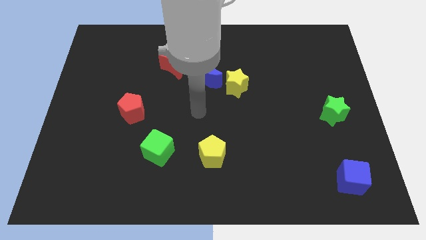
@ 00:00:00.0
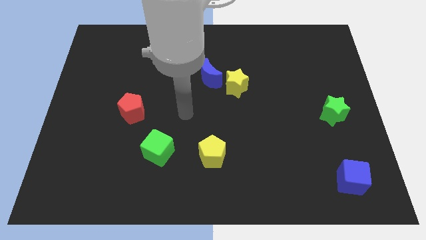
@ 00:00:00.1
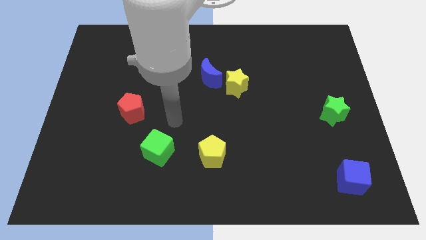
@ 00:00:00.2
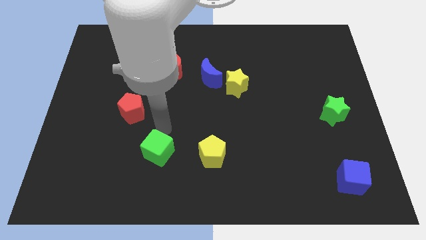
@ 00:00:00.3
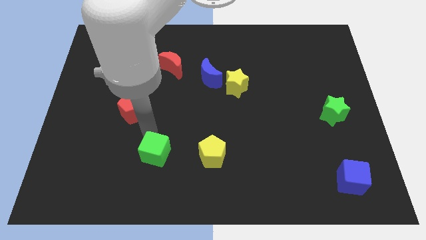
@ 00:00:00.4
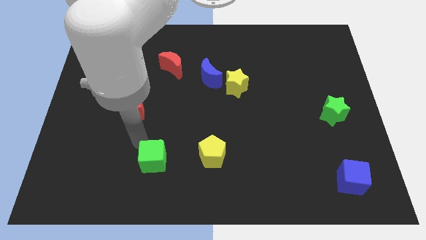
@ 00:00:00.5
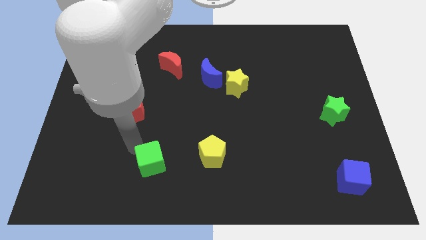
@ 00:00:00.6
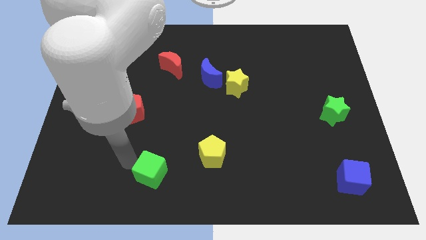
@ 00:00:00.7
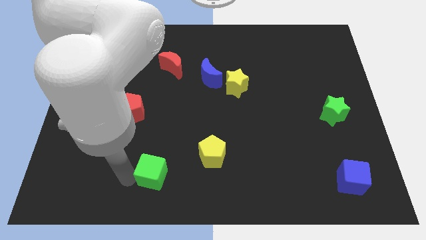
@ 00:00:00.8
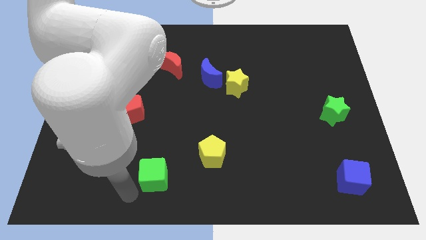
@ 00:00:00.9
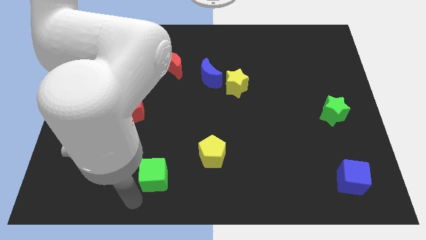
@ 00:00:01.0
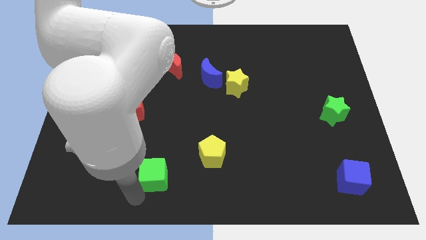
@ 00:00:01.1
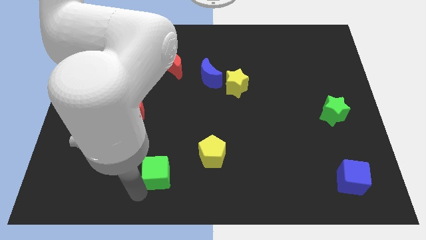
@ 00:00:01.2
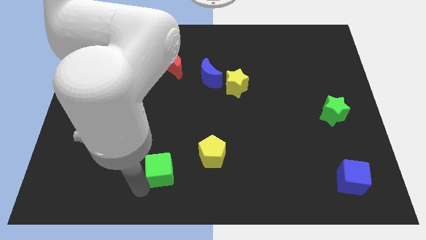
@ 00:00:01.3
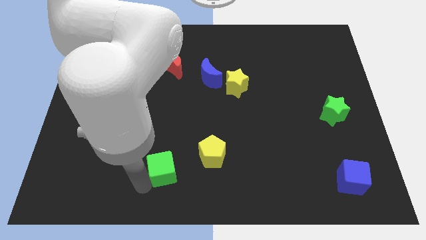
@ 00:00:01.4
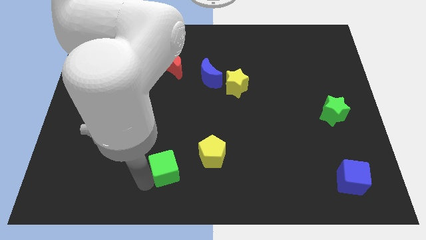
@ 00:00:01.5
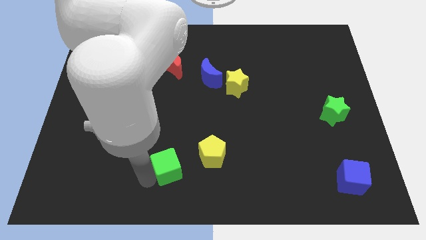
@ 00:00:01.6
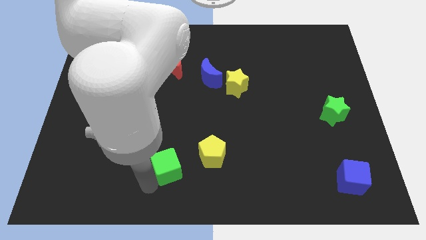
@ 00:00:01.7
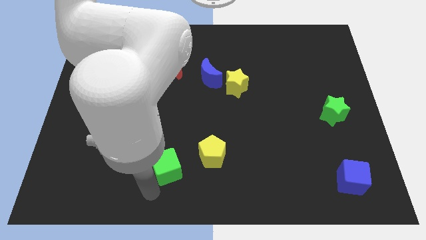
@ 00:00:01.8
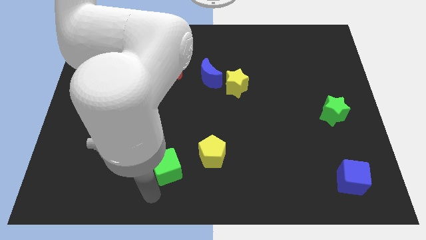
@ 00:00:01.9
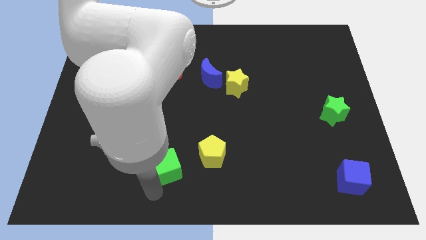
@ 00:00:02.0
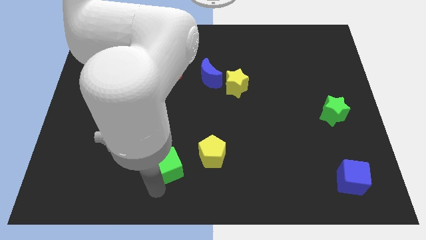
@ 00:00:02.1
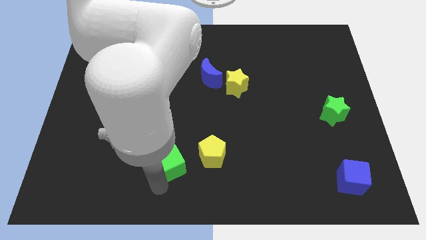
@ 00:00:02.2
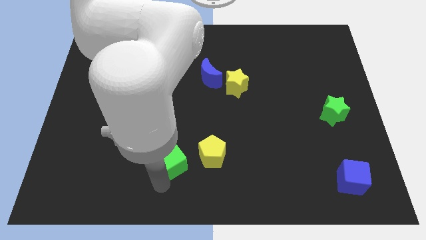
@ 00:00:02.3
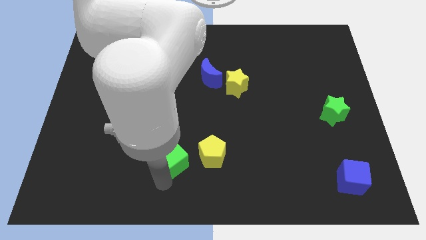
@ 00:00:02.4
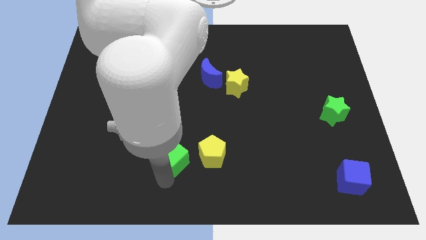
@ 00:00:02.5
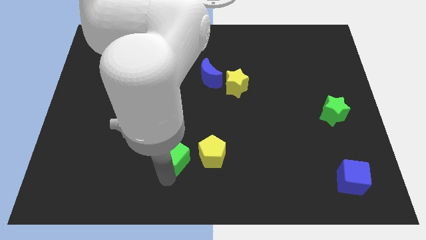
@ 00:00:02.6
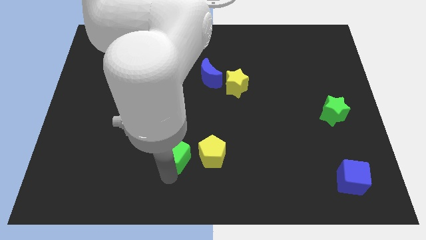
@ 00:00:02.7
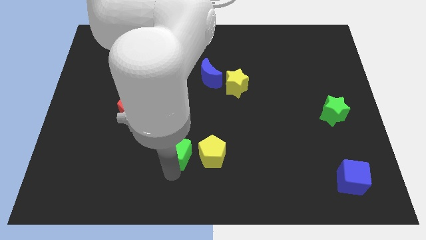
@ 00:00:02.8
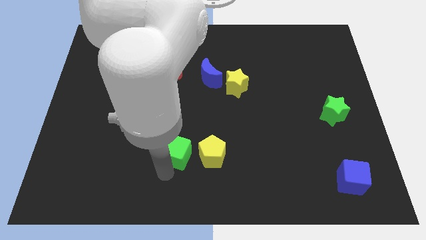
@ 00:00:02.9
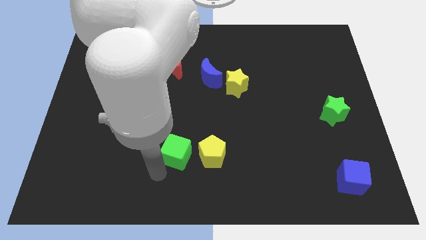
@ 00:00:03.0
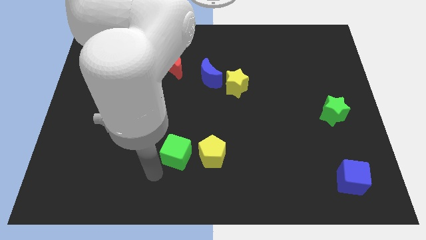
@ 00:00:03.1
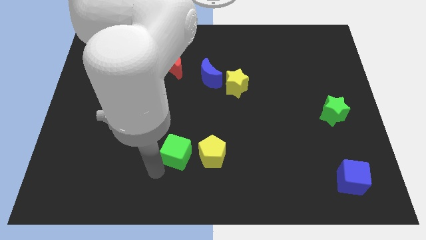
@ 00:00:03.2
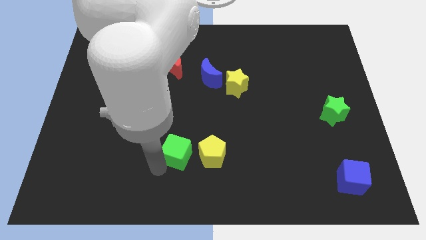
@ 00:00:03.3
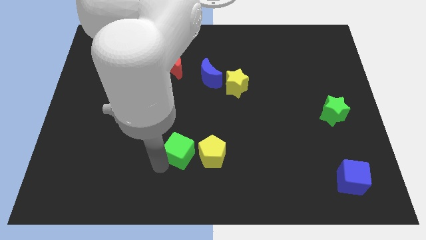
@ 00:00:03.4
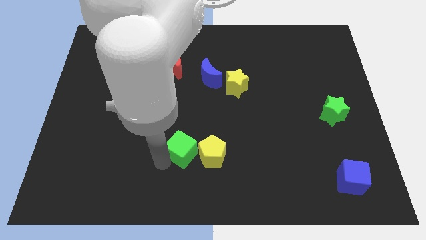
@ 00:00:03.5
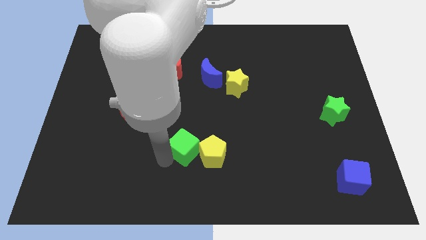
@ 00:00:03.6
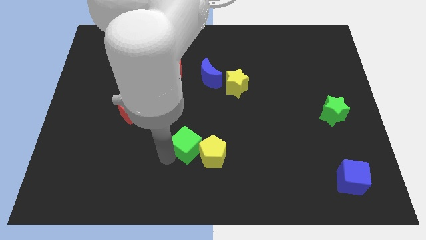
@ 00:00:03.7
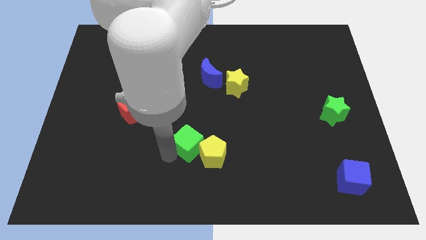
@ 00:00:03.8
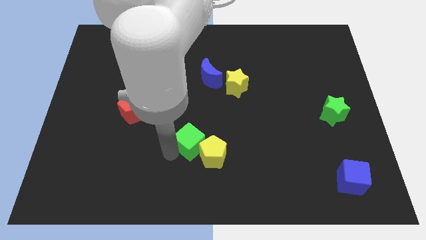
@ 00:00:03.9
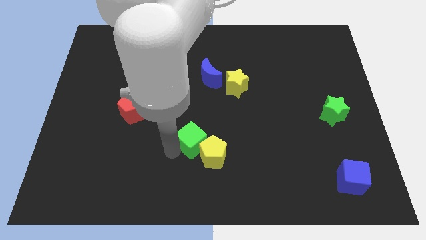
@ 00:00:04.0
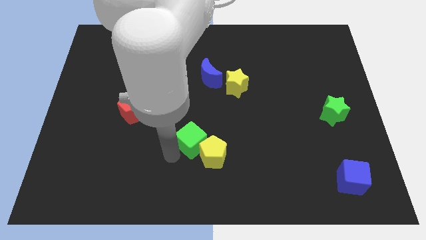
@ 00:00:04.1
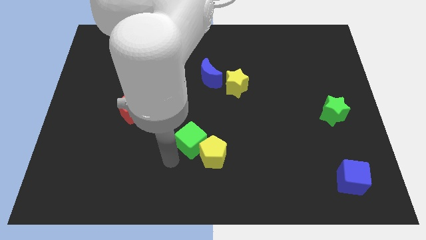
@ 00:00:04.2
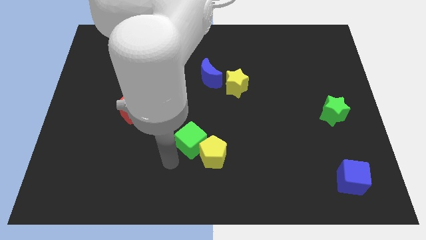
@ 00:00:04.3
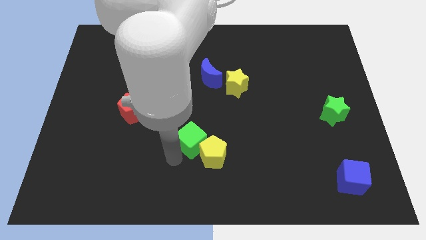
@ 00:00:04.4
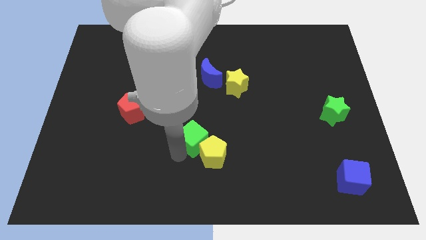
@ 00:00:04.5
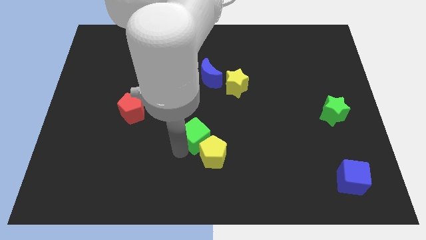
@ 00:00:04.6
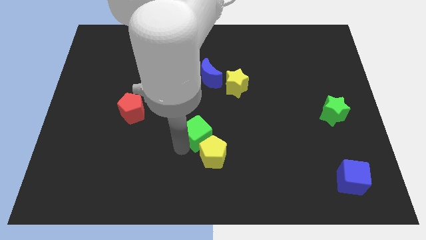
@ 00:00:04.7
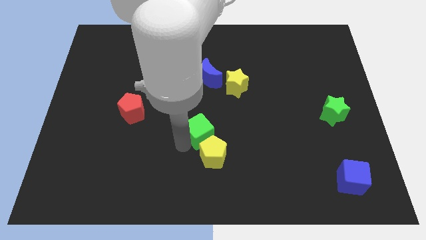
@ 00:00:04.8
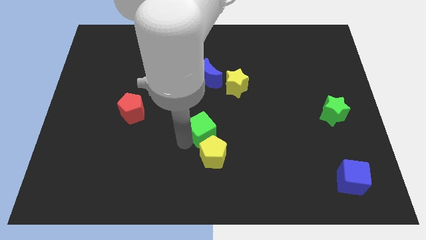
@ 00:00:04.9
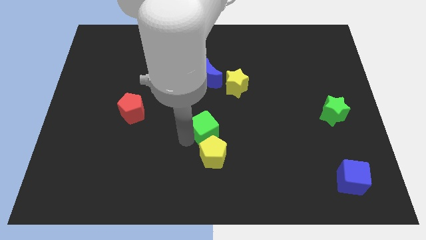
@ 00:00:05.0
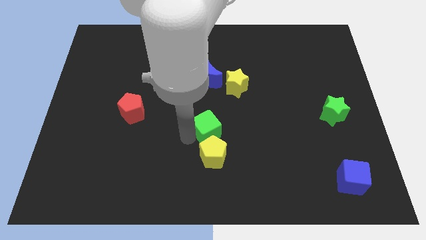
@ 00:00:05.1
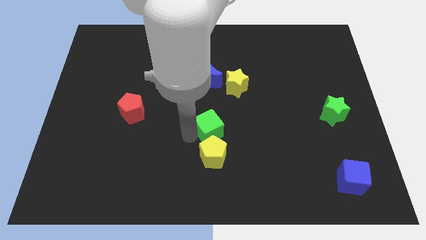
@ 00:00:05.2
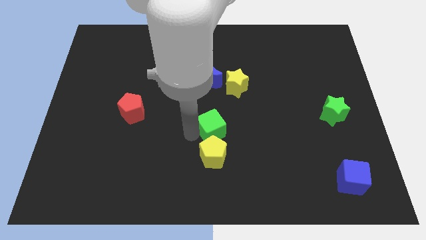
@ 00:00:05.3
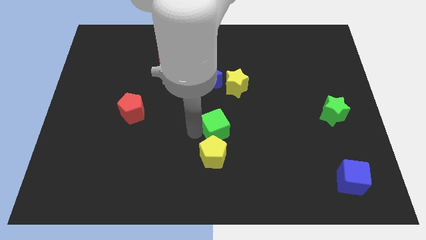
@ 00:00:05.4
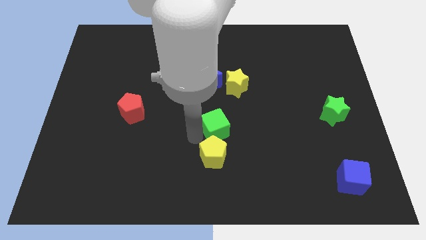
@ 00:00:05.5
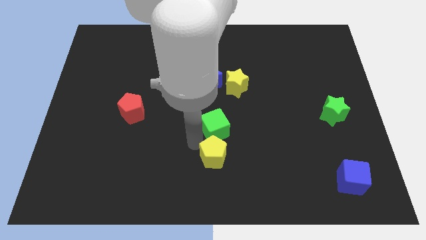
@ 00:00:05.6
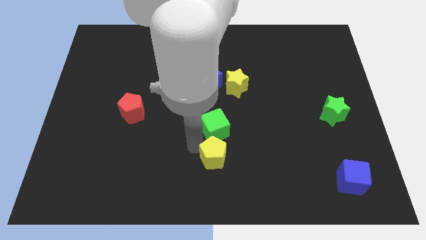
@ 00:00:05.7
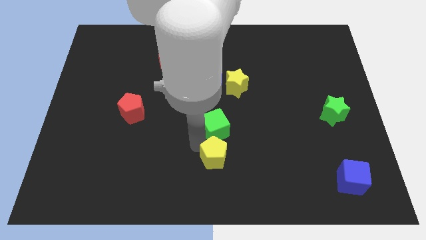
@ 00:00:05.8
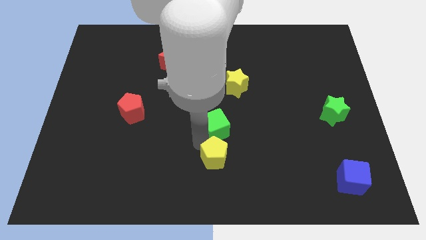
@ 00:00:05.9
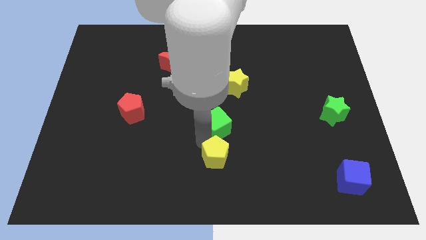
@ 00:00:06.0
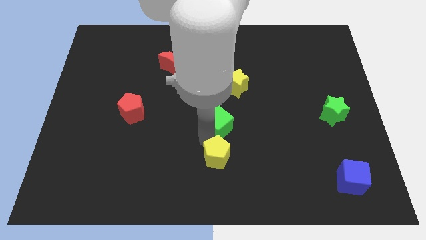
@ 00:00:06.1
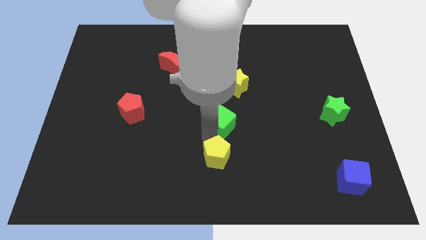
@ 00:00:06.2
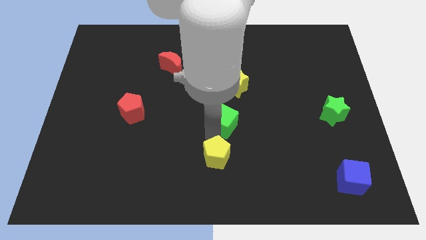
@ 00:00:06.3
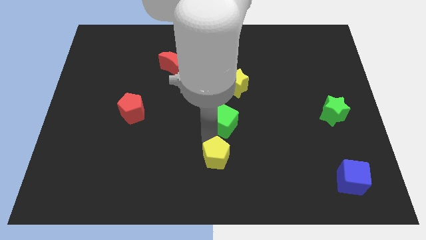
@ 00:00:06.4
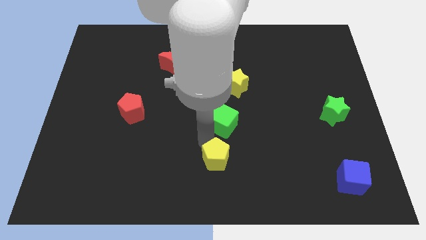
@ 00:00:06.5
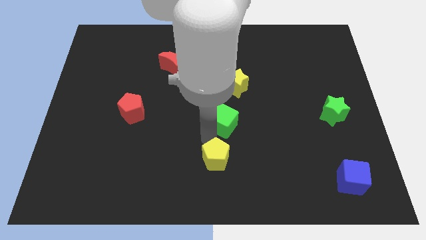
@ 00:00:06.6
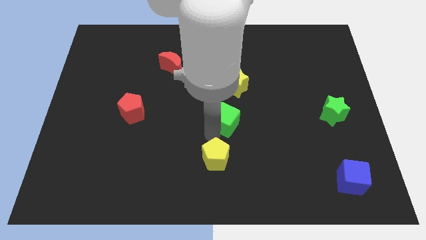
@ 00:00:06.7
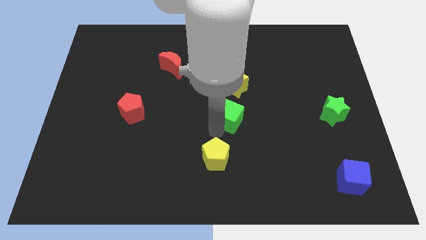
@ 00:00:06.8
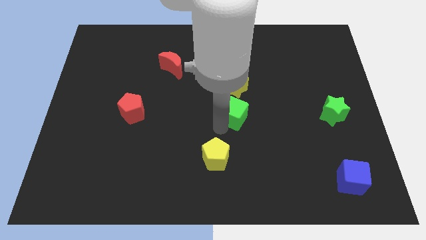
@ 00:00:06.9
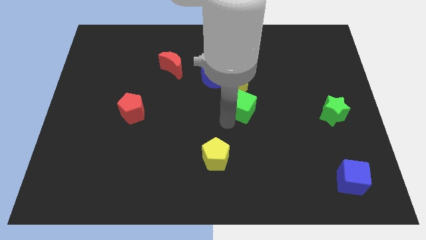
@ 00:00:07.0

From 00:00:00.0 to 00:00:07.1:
push the green cube diagonally up and to the right

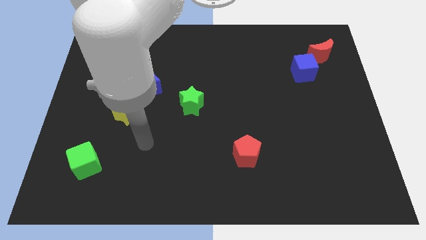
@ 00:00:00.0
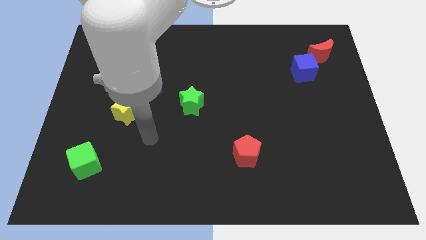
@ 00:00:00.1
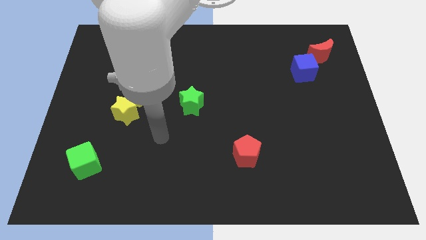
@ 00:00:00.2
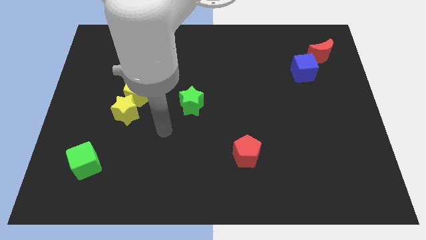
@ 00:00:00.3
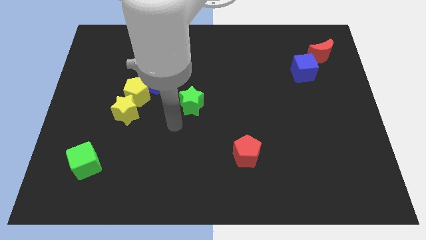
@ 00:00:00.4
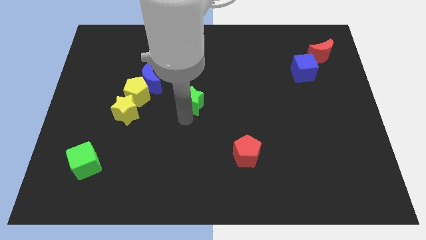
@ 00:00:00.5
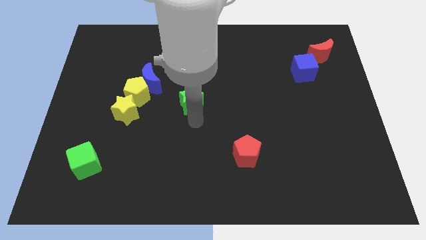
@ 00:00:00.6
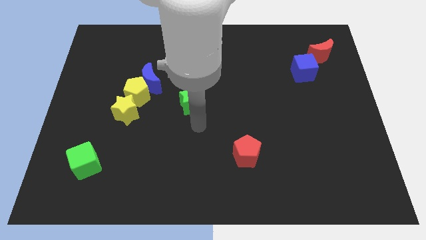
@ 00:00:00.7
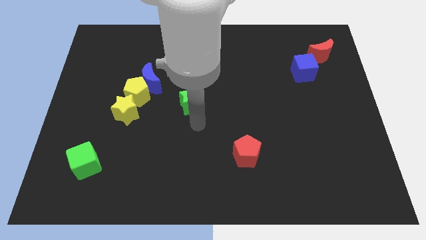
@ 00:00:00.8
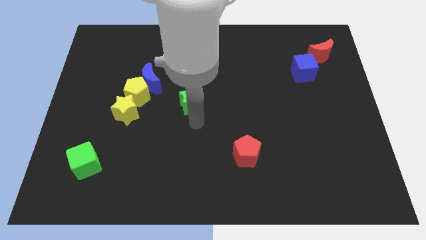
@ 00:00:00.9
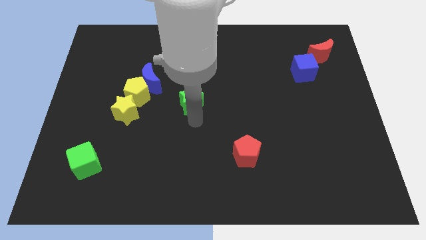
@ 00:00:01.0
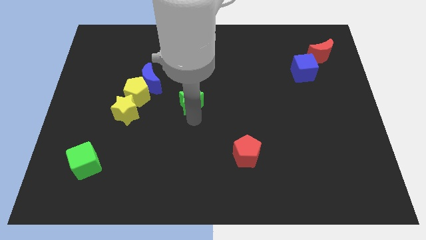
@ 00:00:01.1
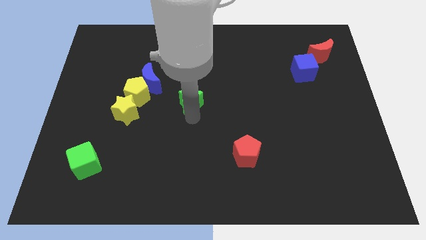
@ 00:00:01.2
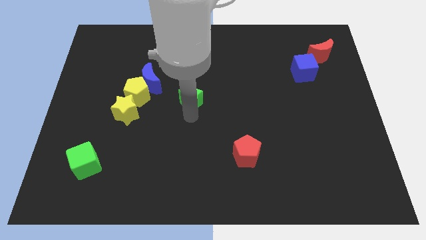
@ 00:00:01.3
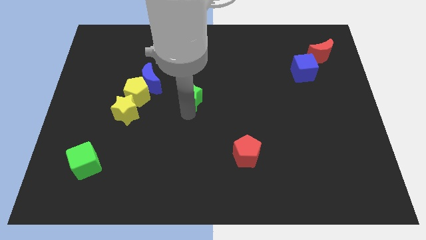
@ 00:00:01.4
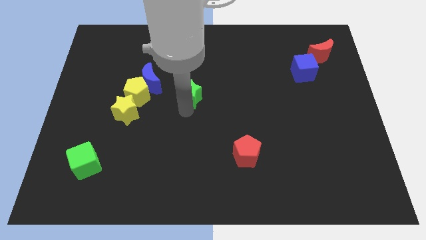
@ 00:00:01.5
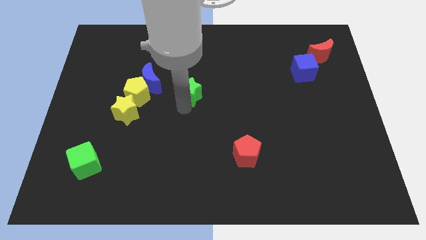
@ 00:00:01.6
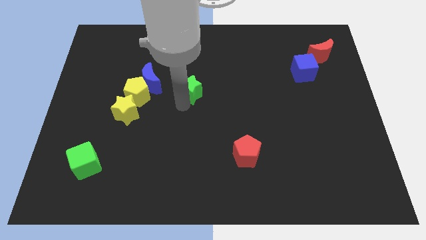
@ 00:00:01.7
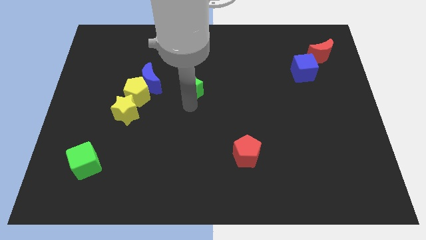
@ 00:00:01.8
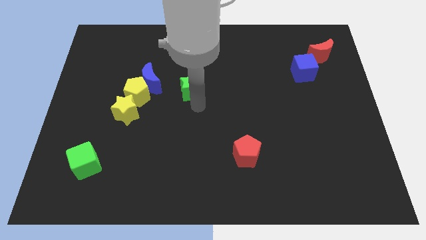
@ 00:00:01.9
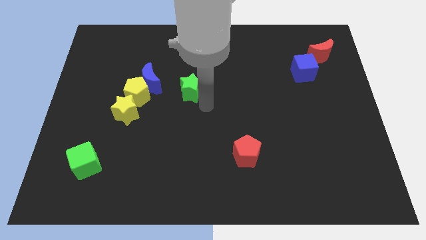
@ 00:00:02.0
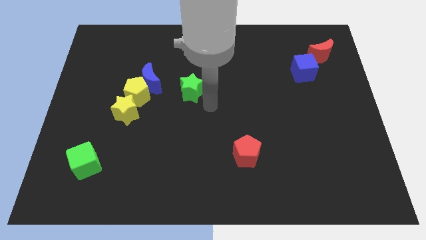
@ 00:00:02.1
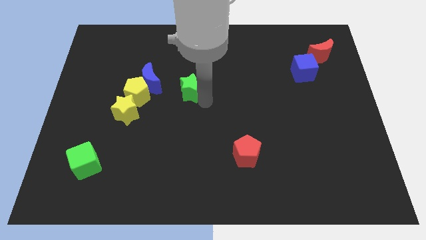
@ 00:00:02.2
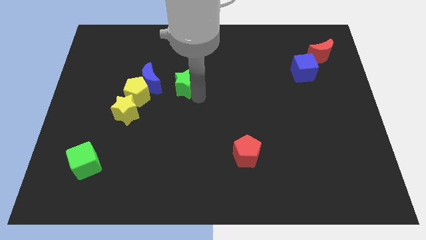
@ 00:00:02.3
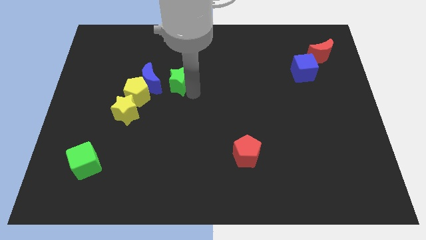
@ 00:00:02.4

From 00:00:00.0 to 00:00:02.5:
push the green star up and left a little bit
